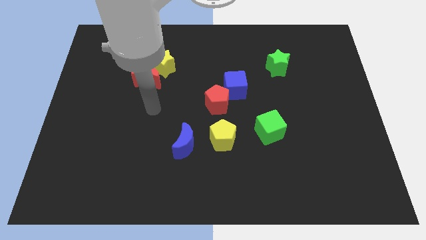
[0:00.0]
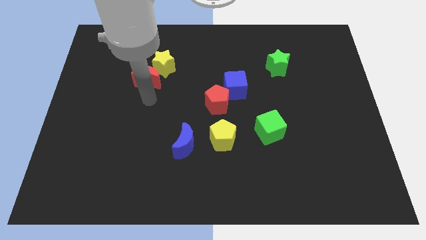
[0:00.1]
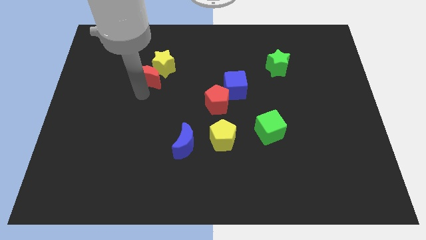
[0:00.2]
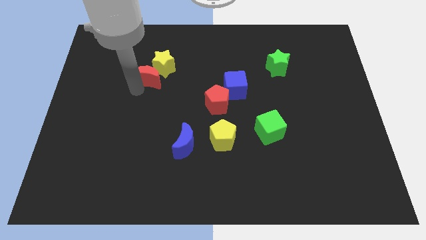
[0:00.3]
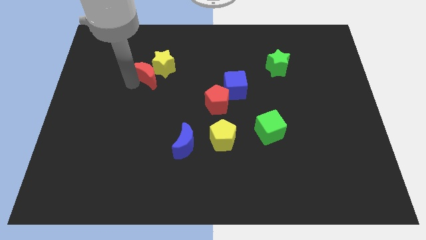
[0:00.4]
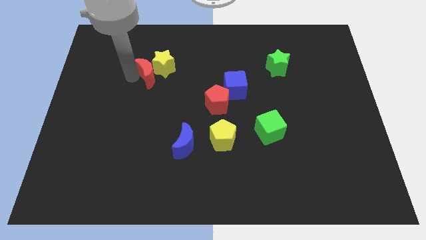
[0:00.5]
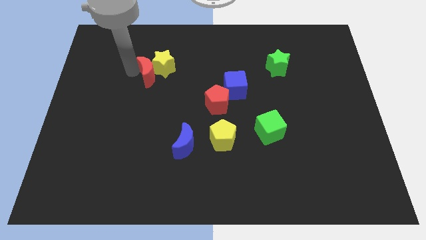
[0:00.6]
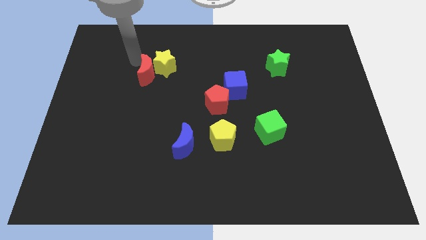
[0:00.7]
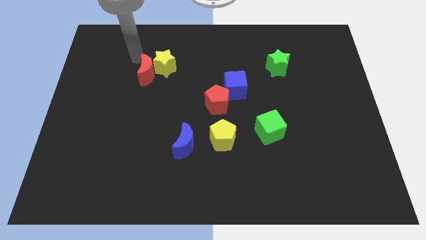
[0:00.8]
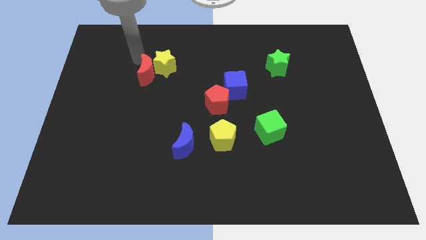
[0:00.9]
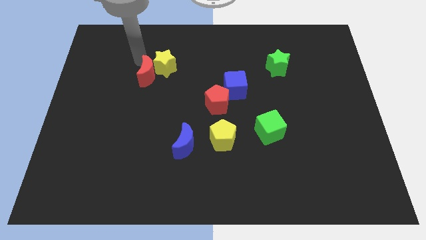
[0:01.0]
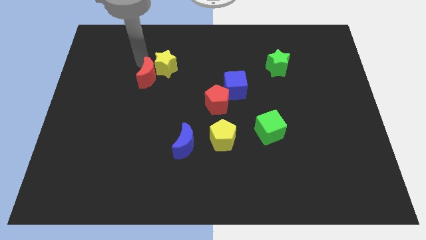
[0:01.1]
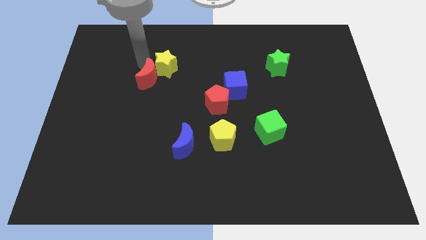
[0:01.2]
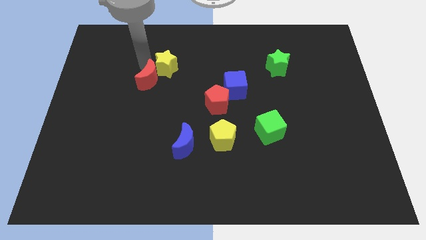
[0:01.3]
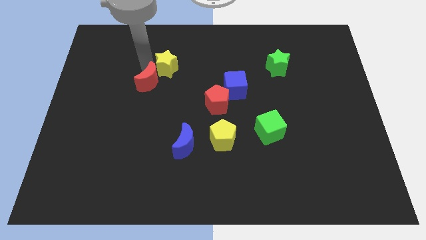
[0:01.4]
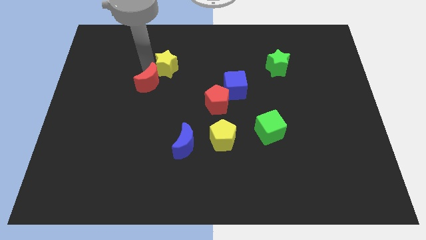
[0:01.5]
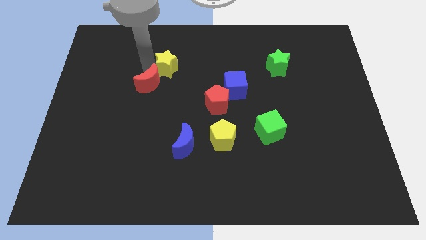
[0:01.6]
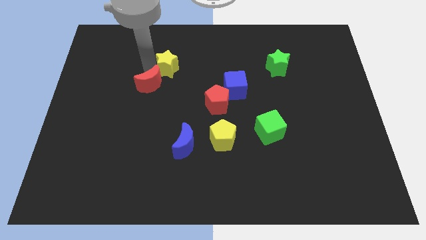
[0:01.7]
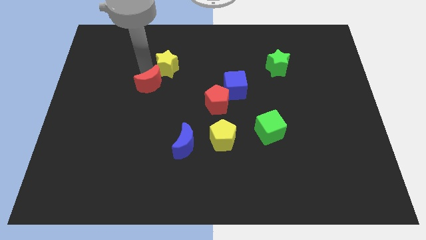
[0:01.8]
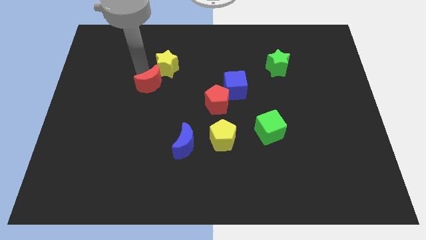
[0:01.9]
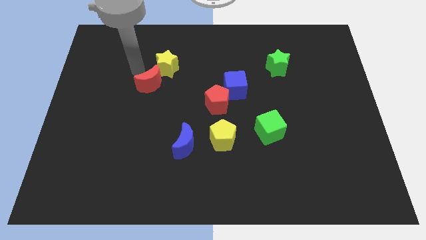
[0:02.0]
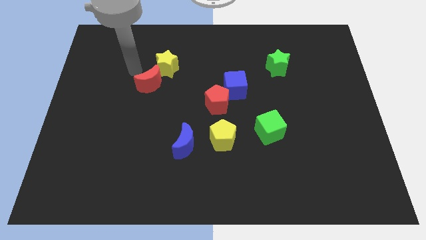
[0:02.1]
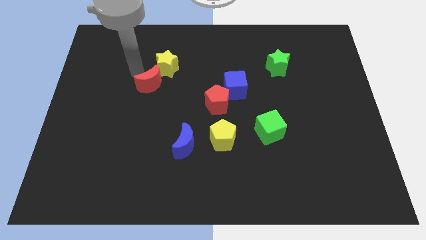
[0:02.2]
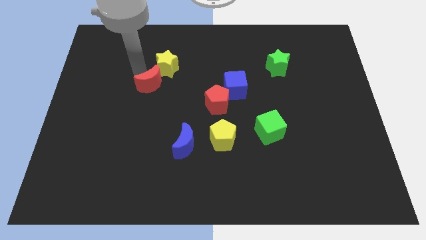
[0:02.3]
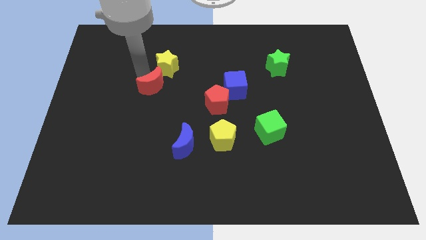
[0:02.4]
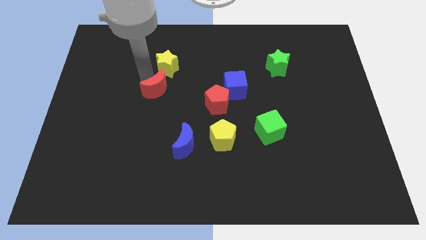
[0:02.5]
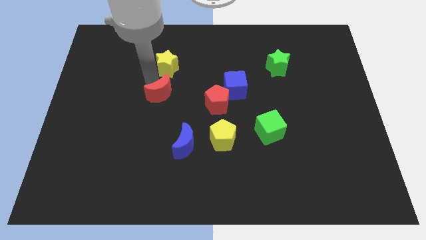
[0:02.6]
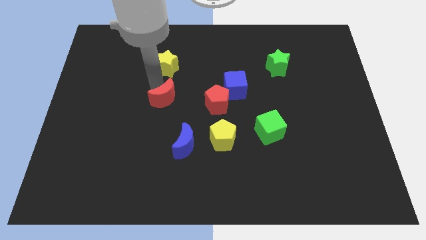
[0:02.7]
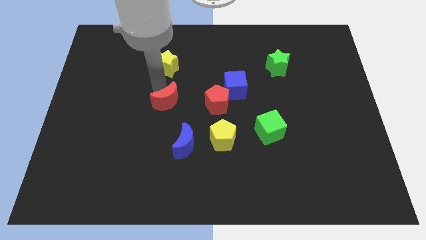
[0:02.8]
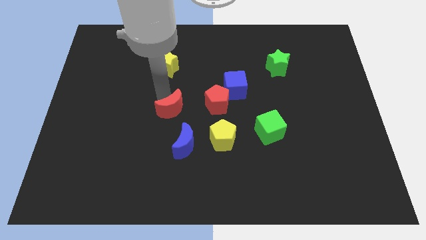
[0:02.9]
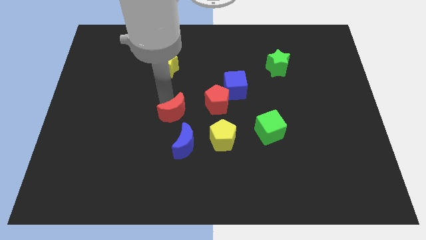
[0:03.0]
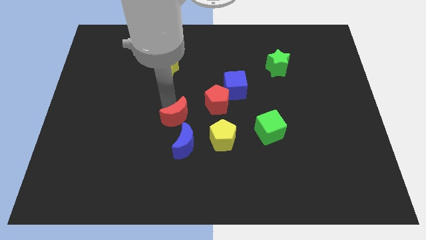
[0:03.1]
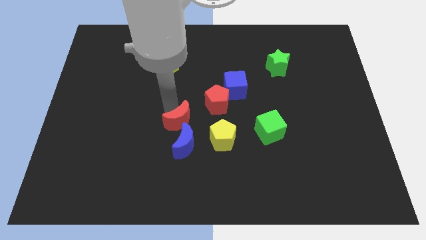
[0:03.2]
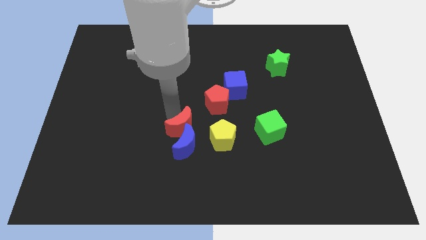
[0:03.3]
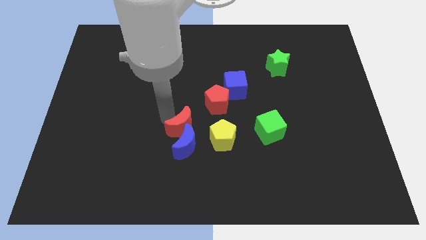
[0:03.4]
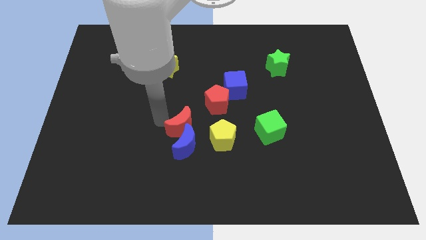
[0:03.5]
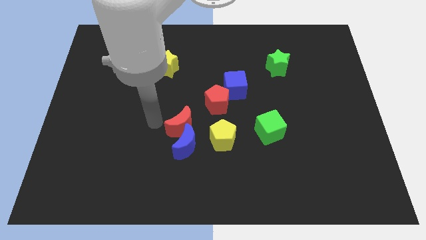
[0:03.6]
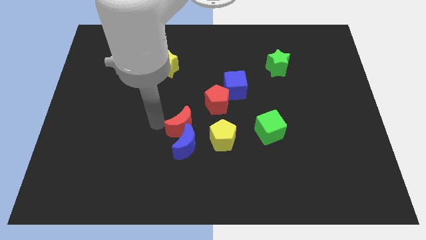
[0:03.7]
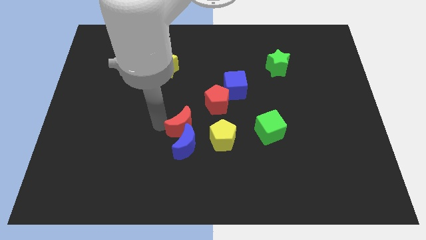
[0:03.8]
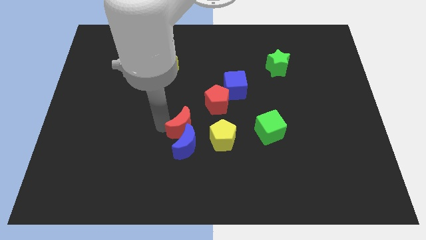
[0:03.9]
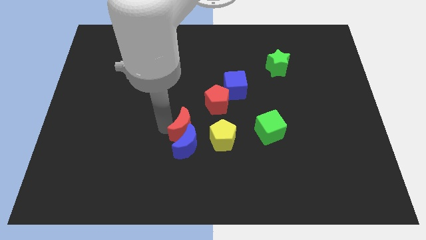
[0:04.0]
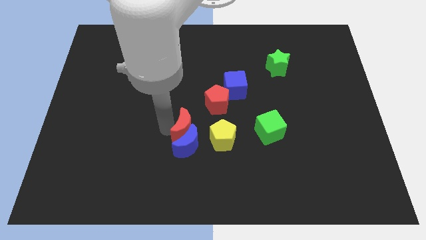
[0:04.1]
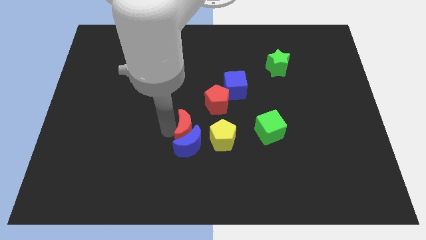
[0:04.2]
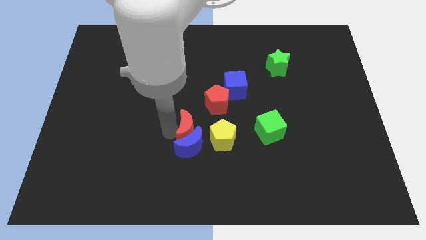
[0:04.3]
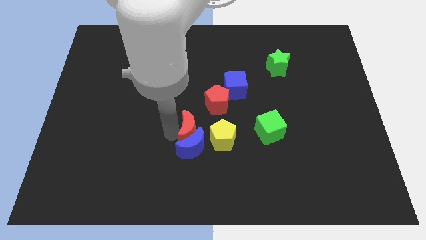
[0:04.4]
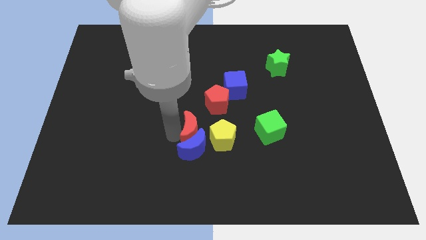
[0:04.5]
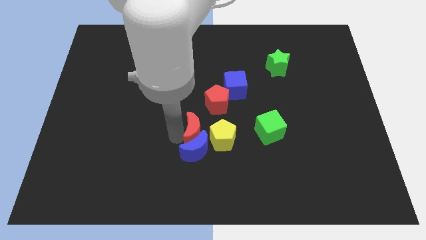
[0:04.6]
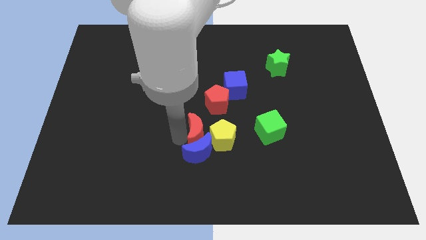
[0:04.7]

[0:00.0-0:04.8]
put the red moon just left of the green cube

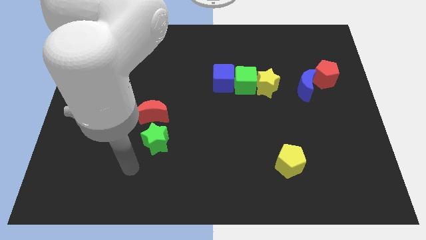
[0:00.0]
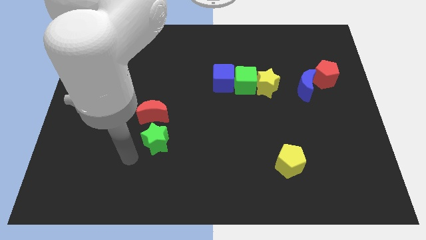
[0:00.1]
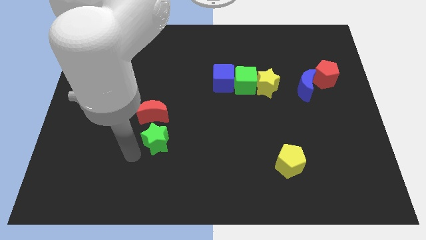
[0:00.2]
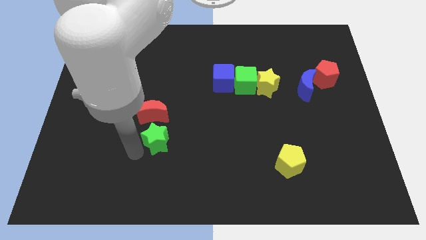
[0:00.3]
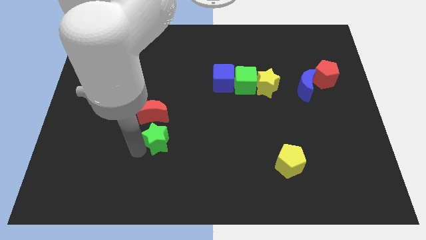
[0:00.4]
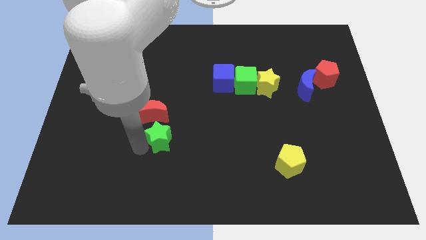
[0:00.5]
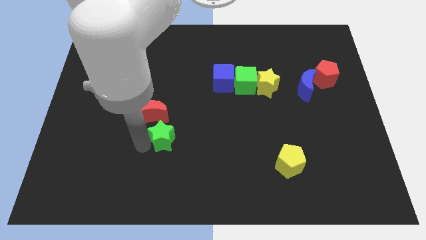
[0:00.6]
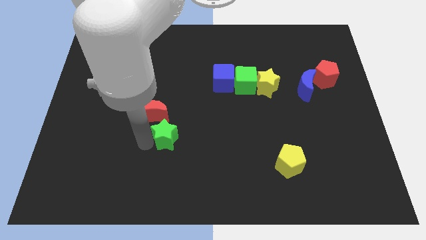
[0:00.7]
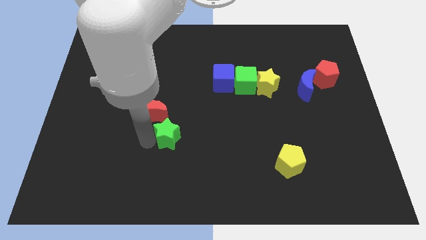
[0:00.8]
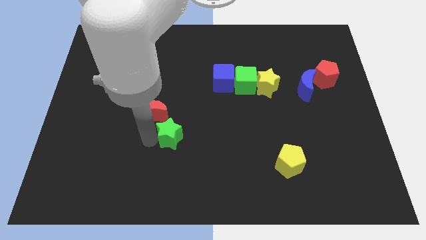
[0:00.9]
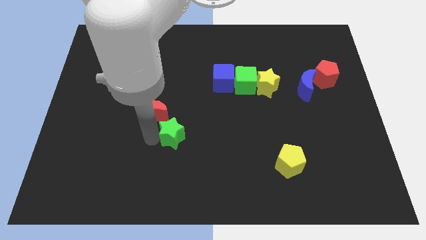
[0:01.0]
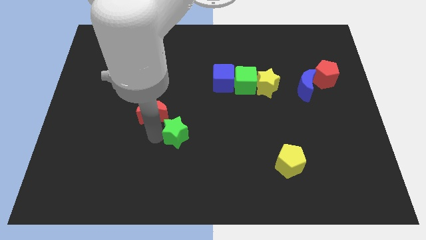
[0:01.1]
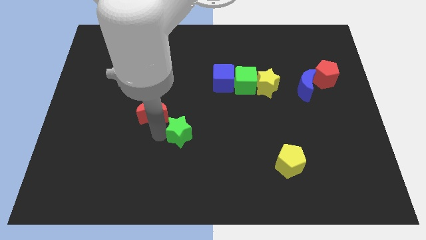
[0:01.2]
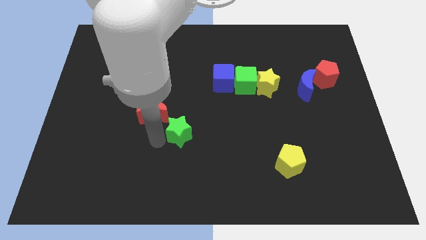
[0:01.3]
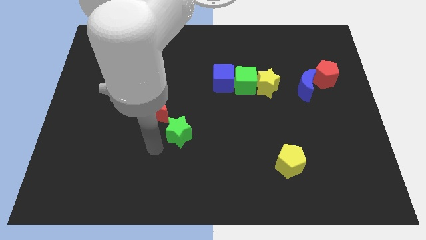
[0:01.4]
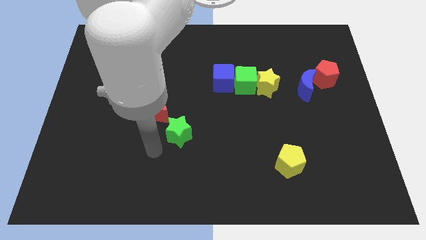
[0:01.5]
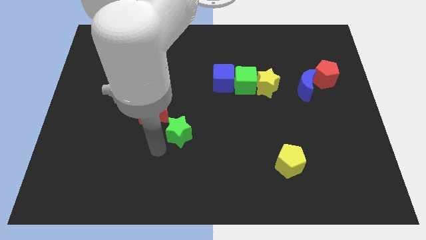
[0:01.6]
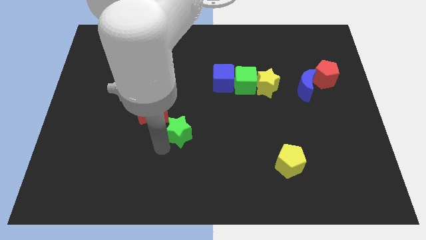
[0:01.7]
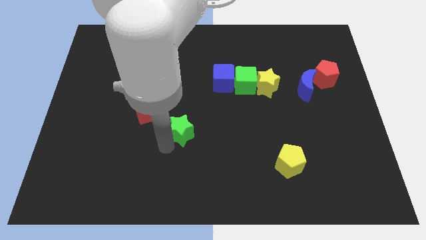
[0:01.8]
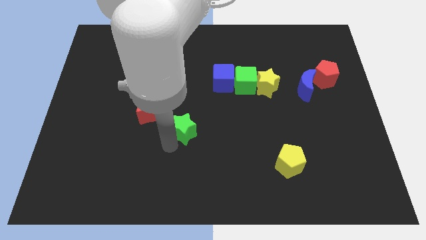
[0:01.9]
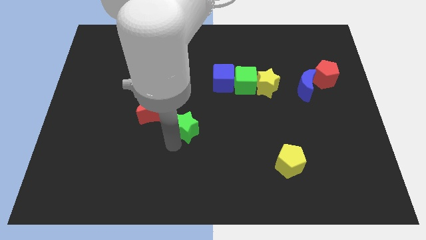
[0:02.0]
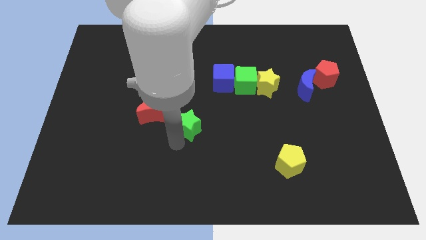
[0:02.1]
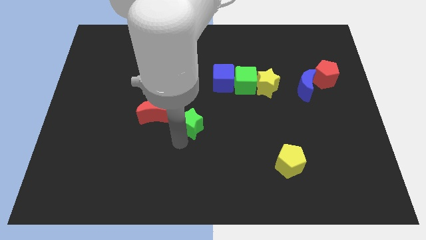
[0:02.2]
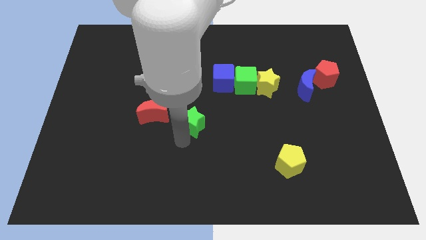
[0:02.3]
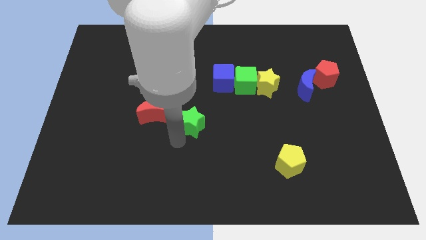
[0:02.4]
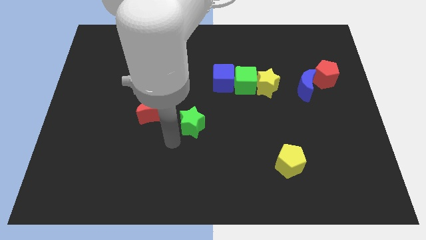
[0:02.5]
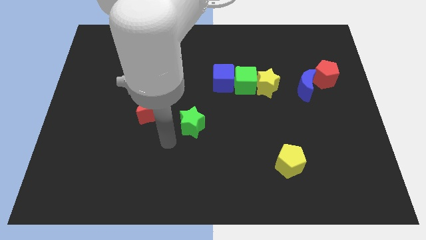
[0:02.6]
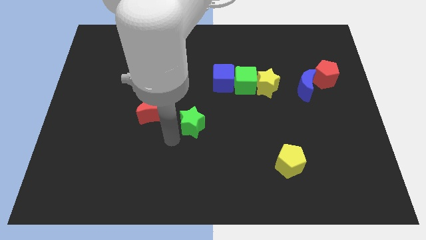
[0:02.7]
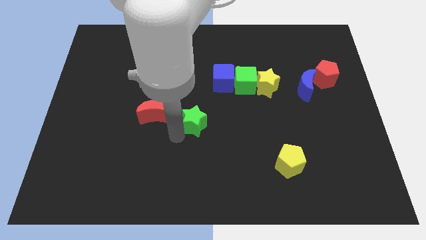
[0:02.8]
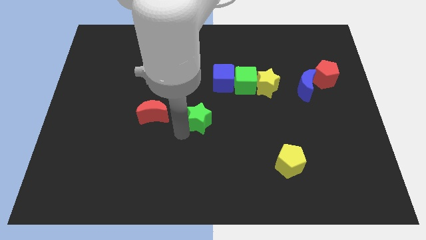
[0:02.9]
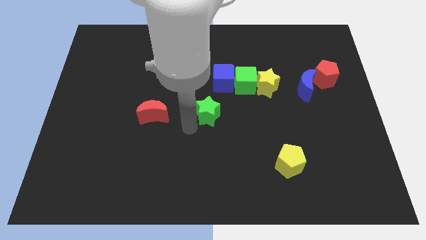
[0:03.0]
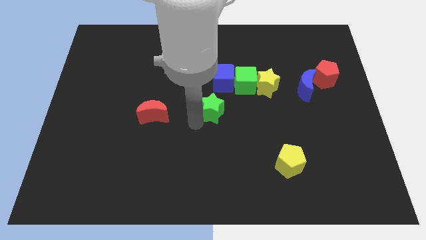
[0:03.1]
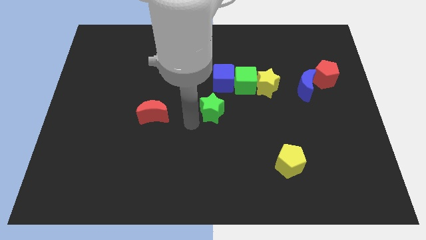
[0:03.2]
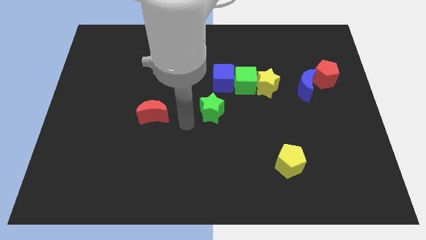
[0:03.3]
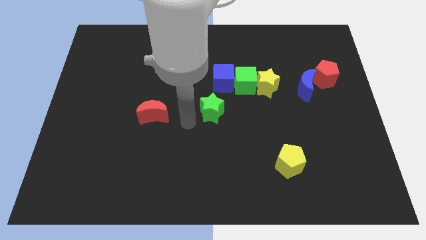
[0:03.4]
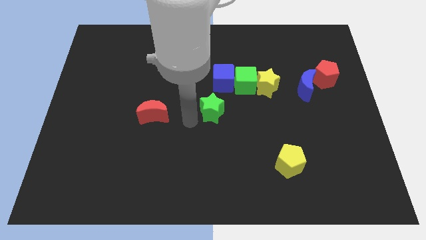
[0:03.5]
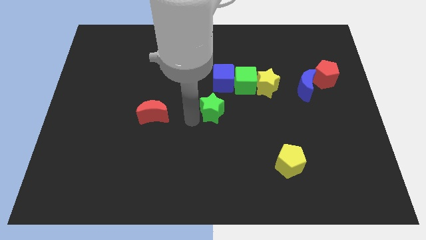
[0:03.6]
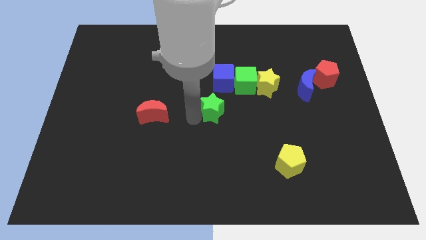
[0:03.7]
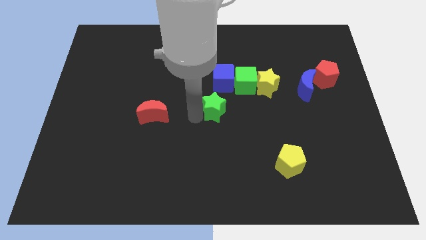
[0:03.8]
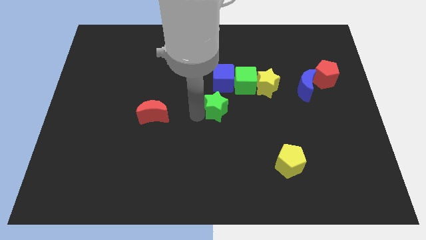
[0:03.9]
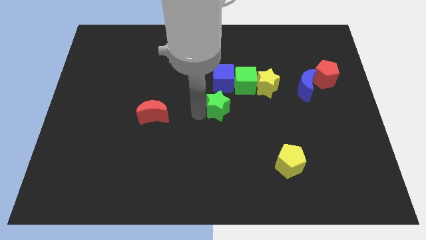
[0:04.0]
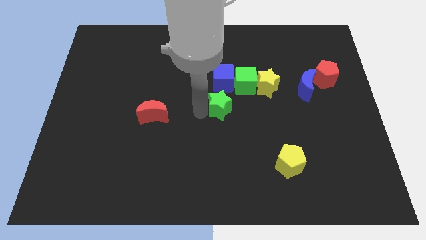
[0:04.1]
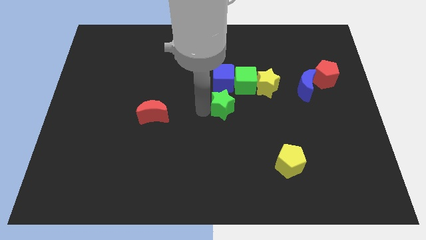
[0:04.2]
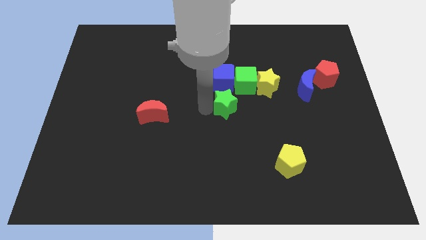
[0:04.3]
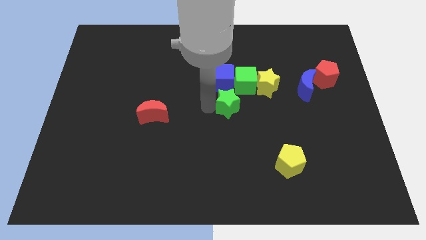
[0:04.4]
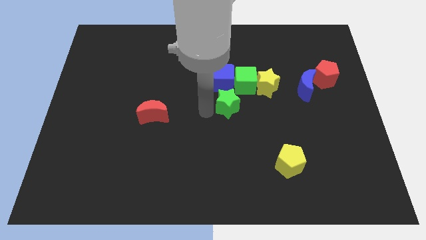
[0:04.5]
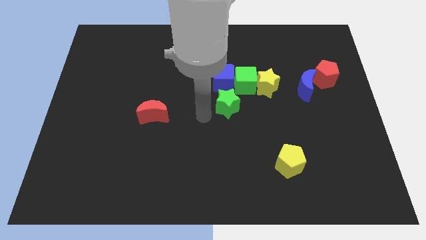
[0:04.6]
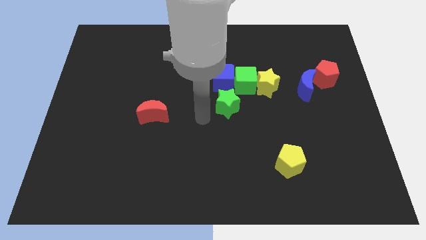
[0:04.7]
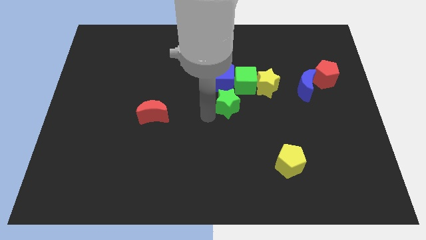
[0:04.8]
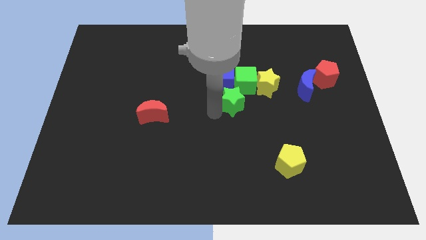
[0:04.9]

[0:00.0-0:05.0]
move the green star to the bottom right side of the blue cube
